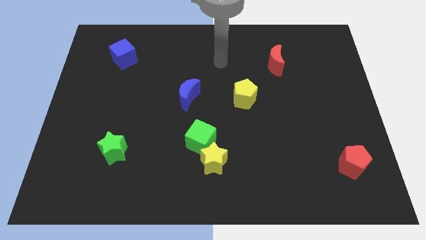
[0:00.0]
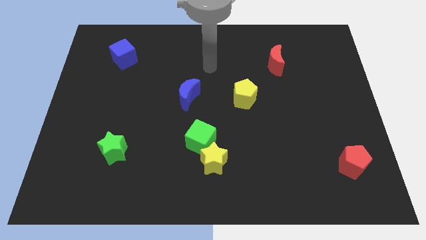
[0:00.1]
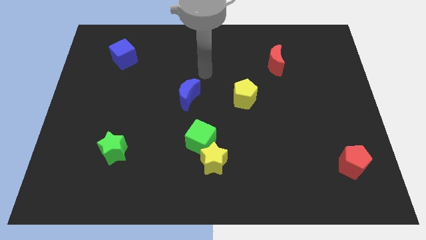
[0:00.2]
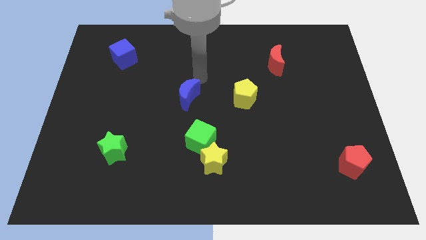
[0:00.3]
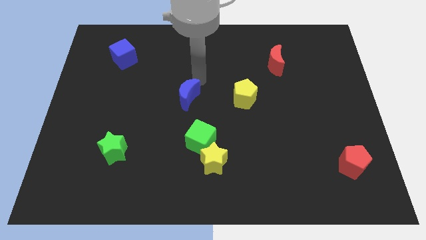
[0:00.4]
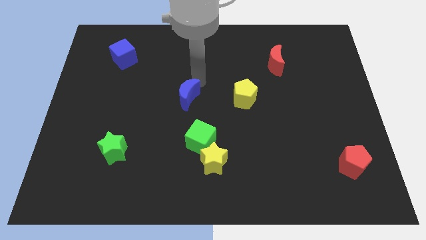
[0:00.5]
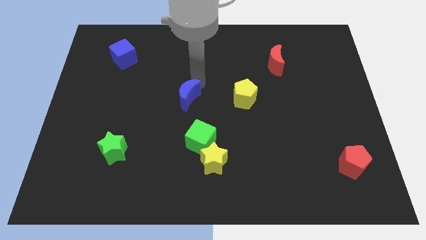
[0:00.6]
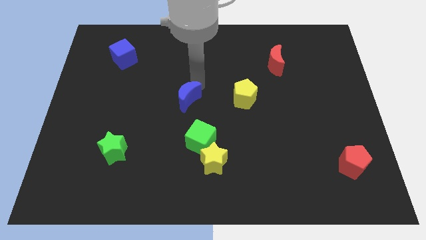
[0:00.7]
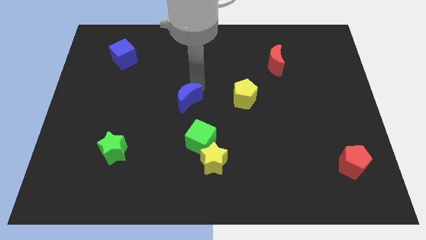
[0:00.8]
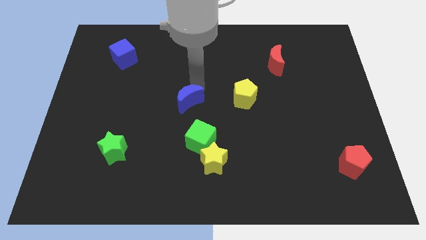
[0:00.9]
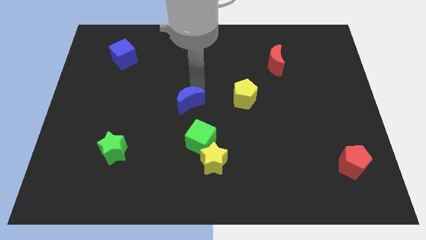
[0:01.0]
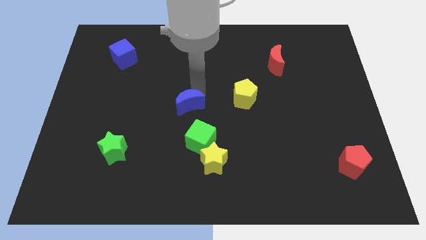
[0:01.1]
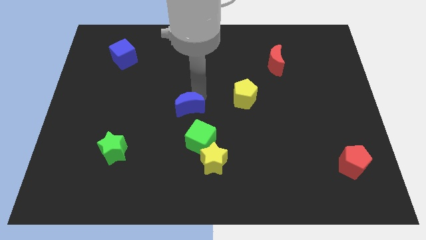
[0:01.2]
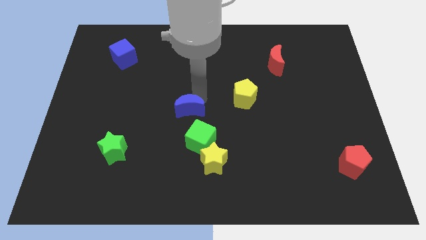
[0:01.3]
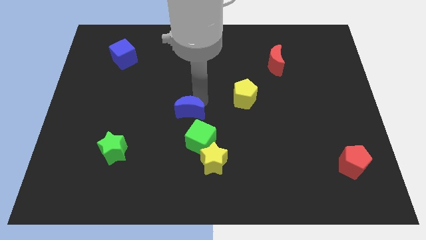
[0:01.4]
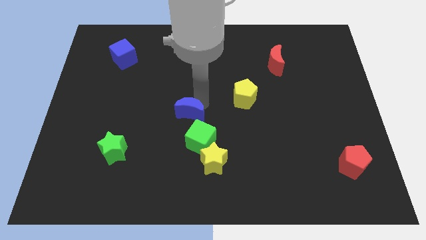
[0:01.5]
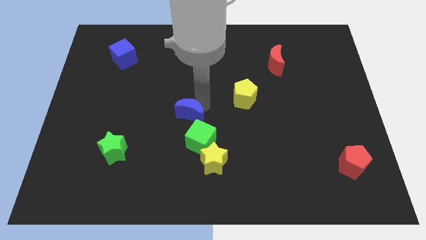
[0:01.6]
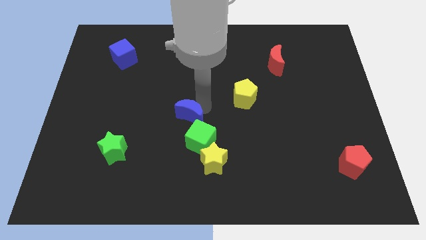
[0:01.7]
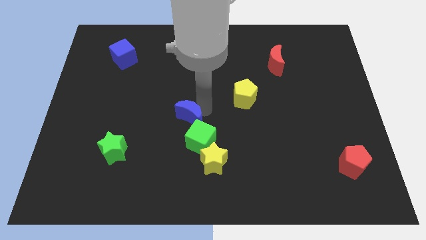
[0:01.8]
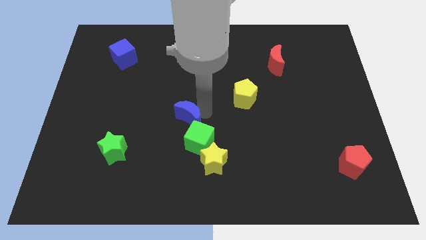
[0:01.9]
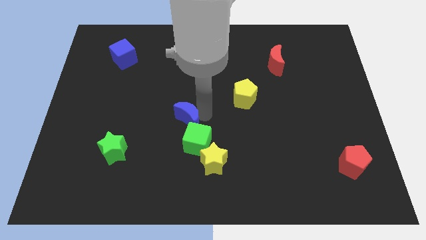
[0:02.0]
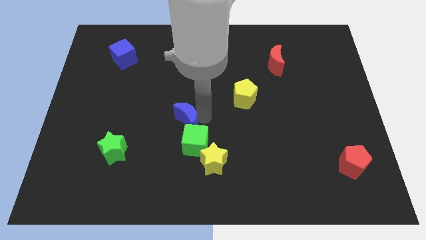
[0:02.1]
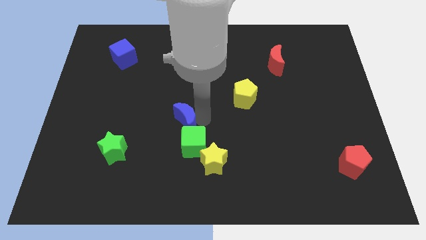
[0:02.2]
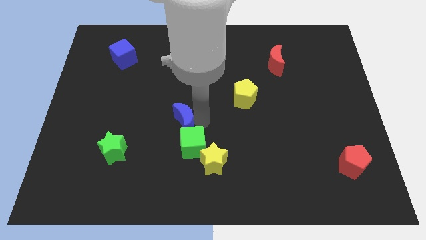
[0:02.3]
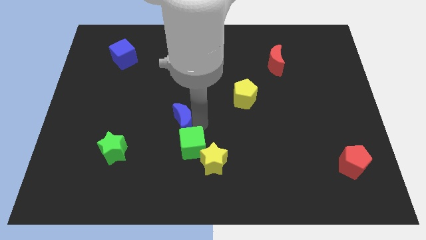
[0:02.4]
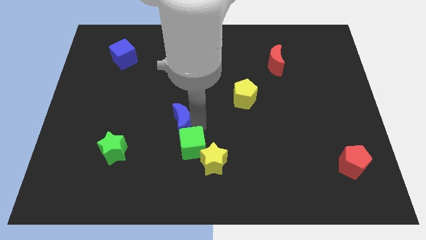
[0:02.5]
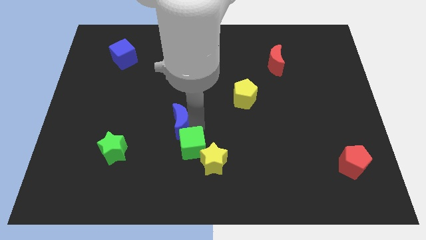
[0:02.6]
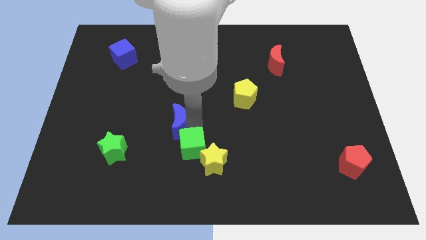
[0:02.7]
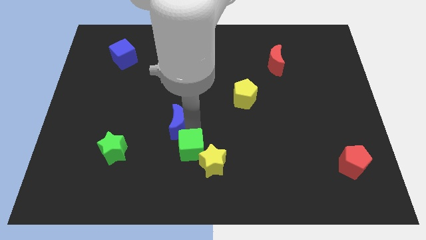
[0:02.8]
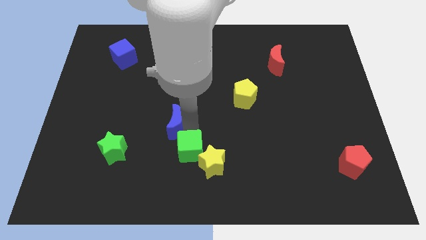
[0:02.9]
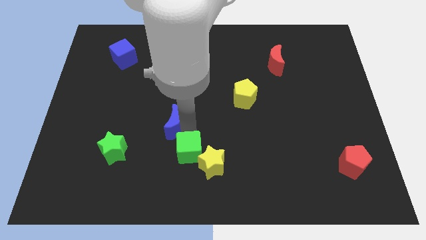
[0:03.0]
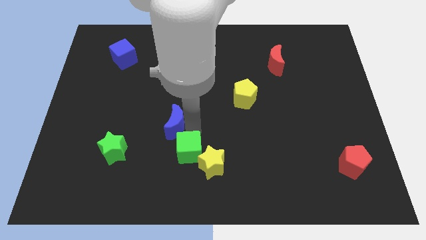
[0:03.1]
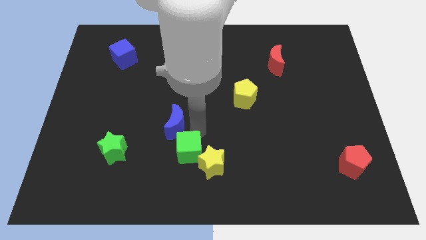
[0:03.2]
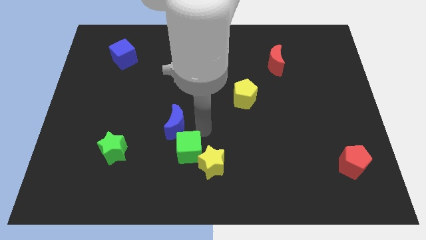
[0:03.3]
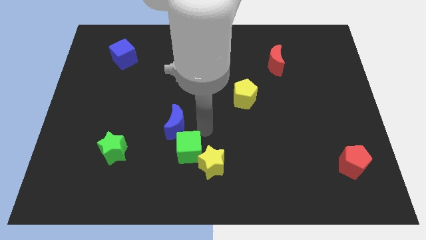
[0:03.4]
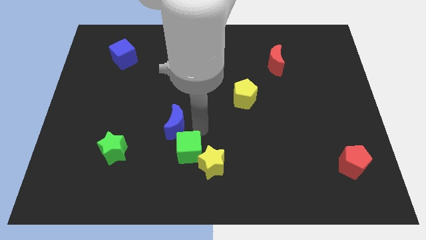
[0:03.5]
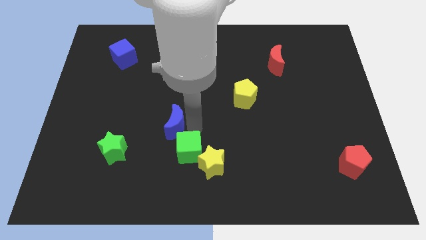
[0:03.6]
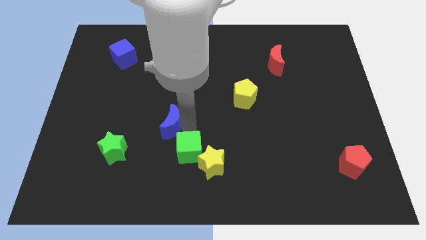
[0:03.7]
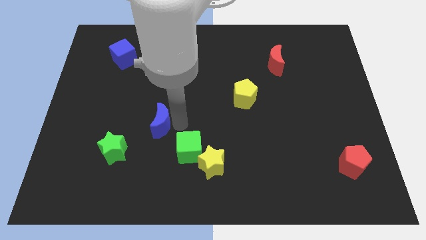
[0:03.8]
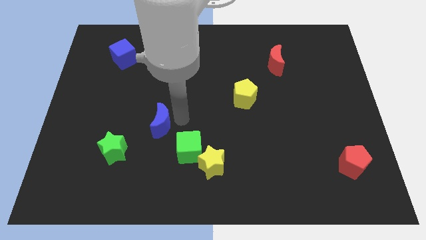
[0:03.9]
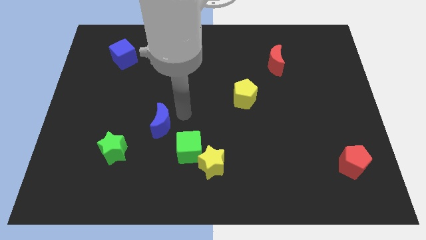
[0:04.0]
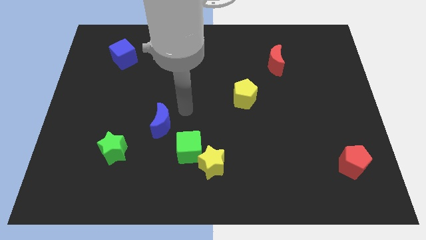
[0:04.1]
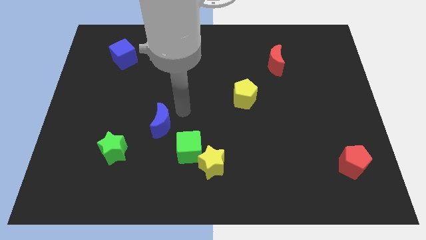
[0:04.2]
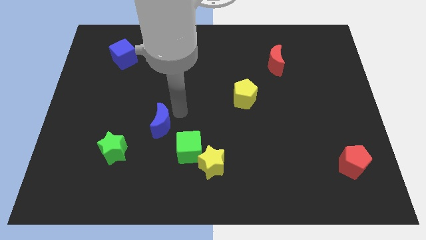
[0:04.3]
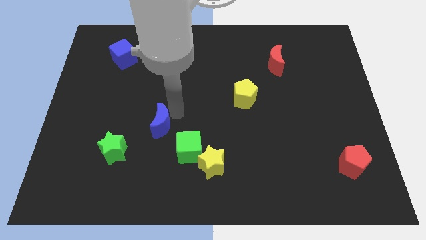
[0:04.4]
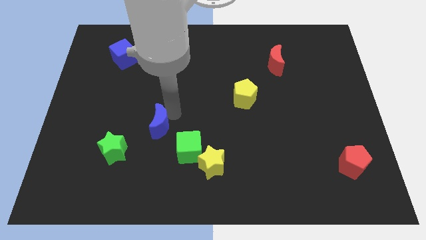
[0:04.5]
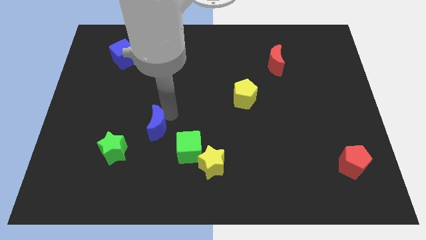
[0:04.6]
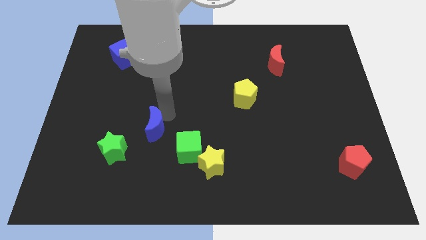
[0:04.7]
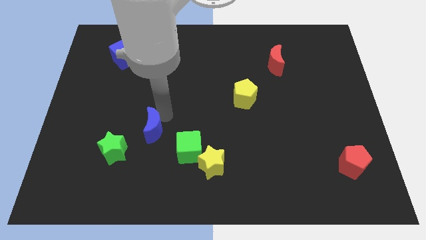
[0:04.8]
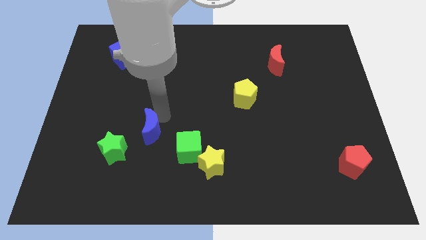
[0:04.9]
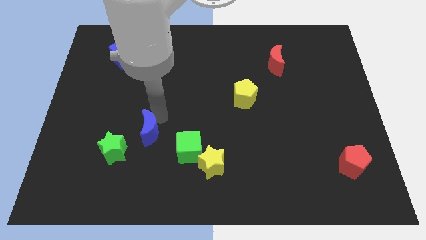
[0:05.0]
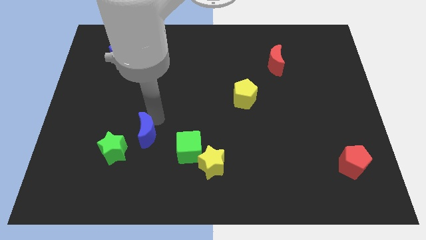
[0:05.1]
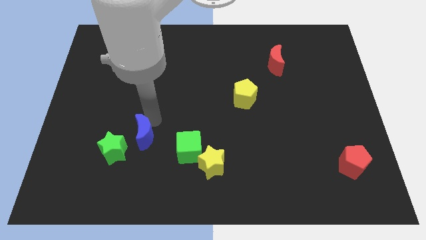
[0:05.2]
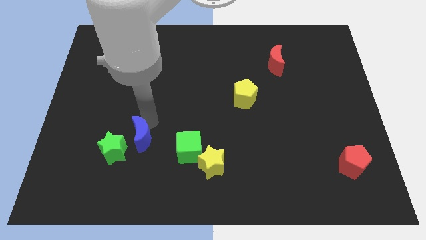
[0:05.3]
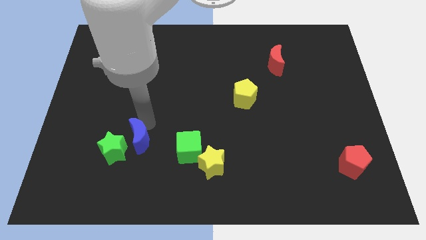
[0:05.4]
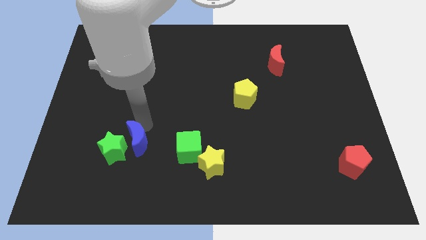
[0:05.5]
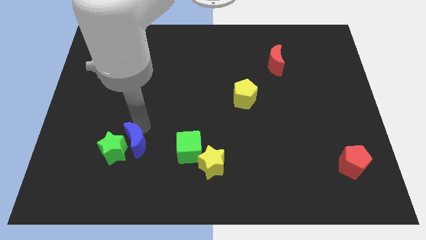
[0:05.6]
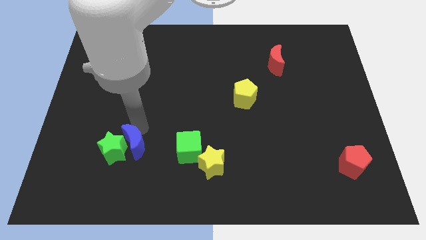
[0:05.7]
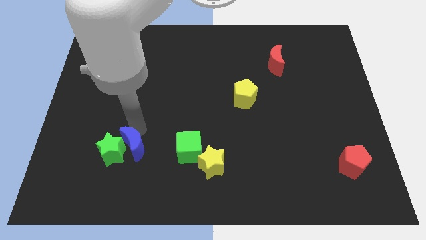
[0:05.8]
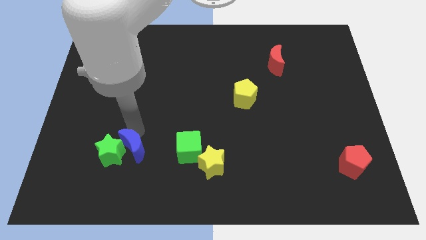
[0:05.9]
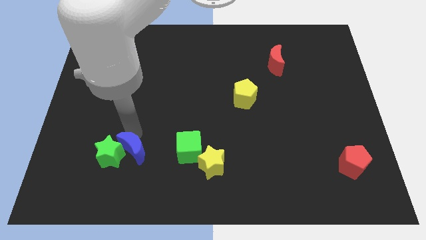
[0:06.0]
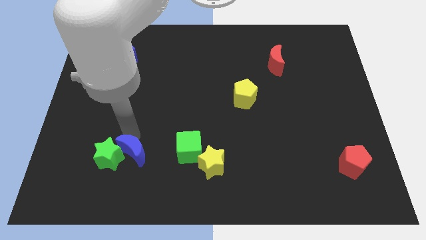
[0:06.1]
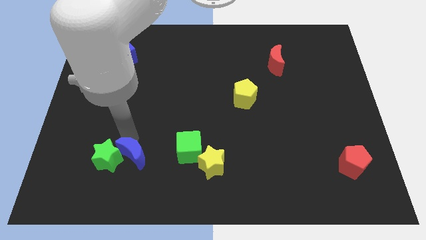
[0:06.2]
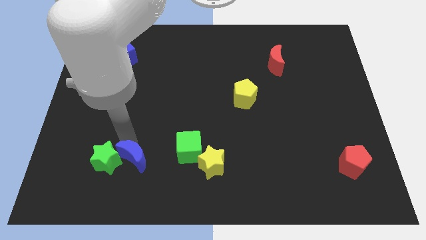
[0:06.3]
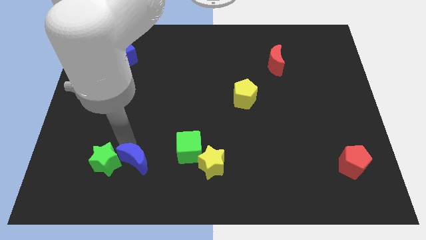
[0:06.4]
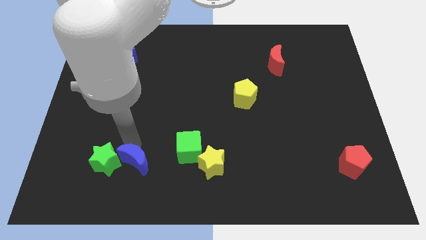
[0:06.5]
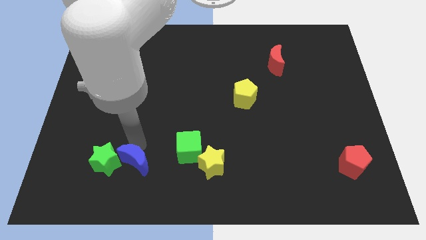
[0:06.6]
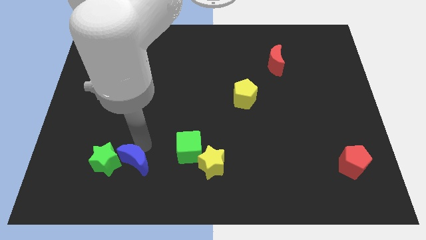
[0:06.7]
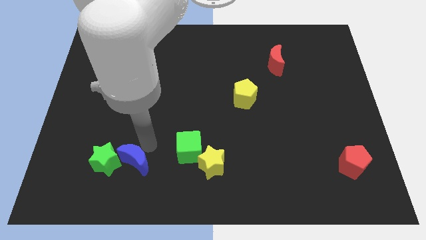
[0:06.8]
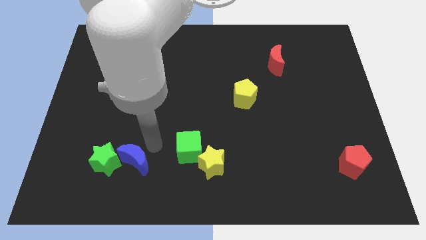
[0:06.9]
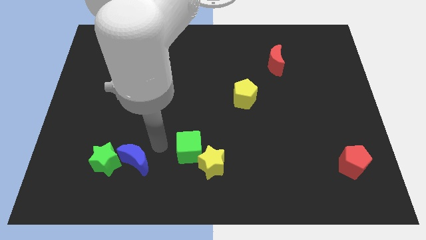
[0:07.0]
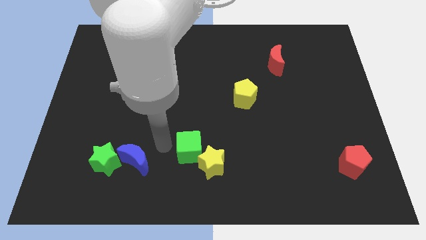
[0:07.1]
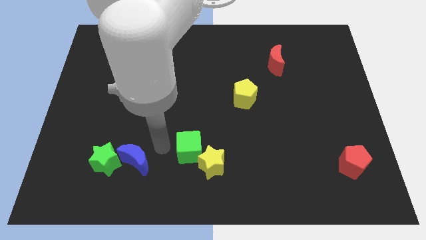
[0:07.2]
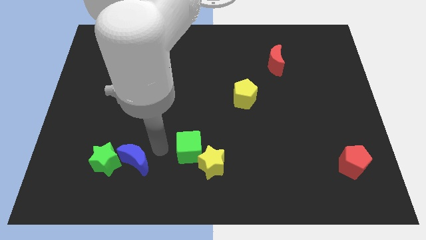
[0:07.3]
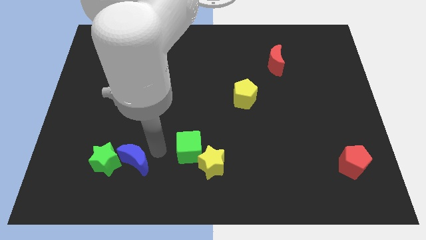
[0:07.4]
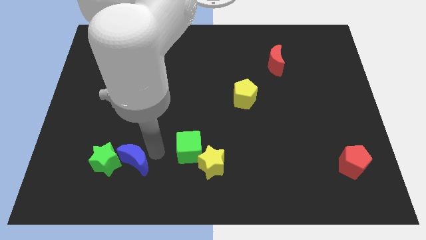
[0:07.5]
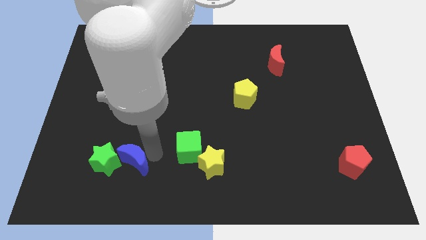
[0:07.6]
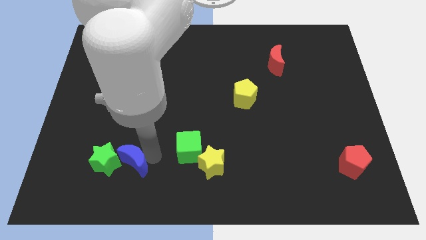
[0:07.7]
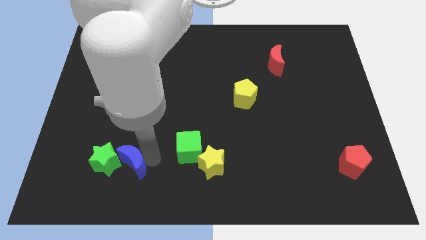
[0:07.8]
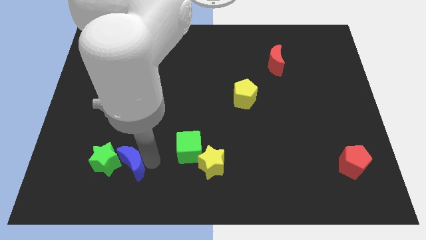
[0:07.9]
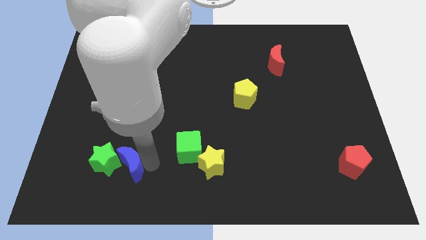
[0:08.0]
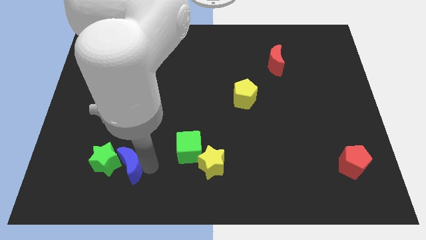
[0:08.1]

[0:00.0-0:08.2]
move the blue moon diagonally downwards and to the left
